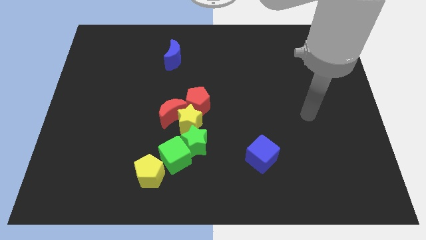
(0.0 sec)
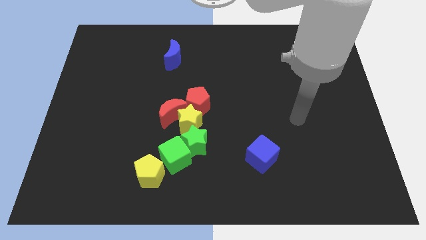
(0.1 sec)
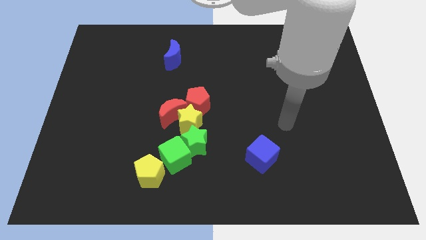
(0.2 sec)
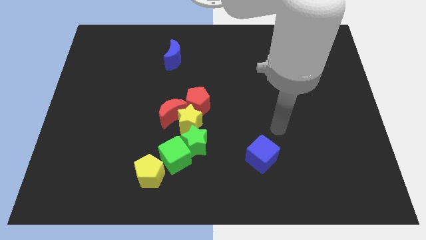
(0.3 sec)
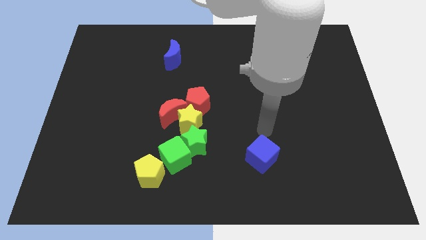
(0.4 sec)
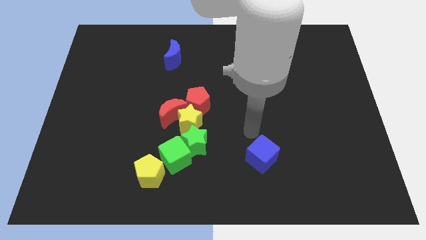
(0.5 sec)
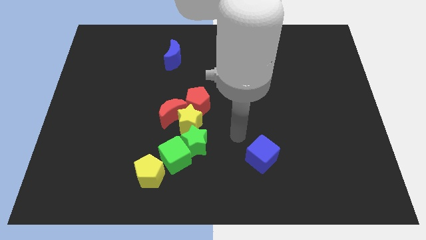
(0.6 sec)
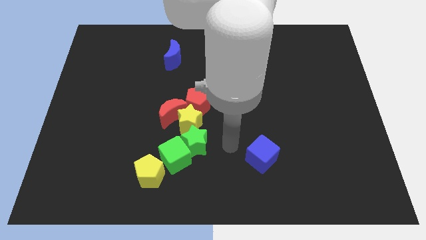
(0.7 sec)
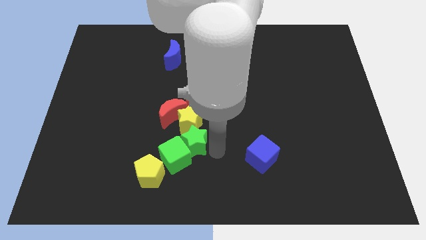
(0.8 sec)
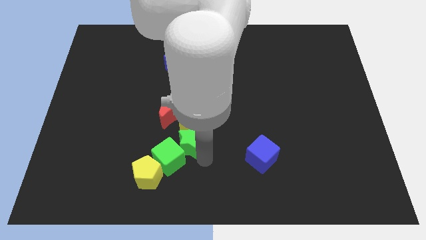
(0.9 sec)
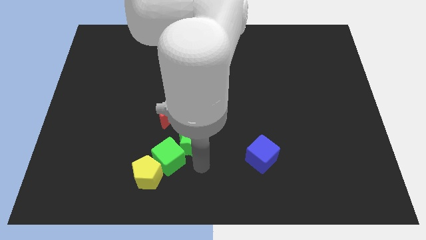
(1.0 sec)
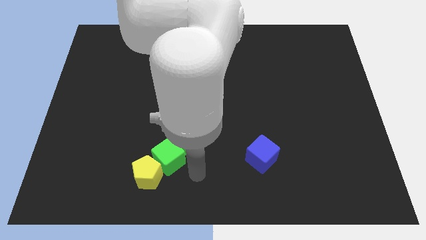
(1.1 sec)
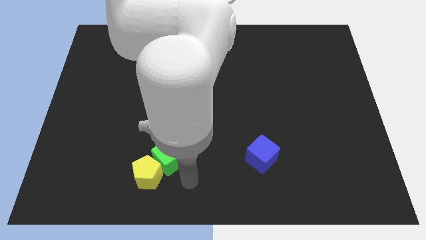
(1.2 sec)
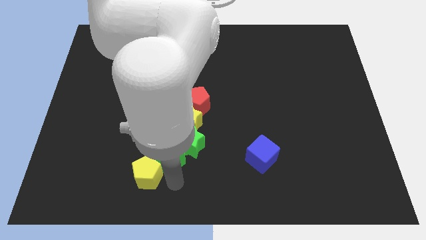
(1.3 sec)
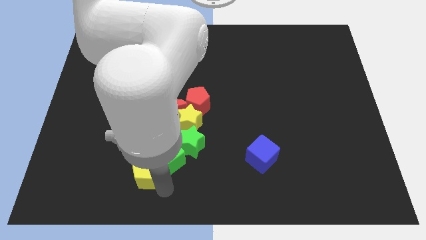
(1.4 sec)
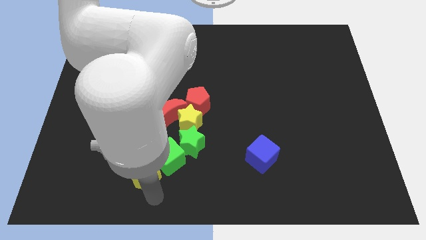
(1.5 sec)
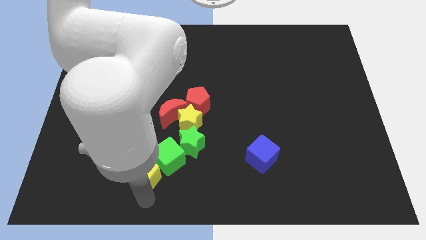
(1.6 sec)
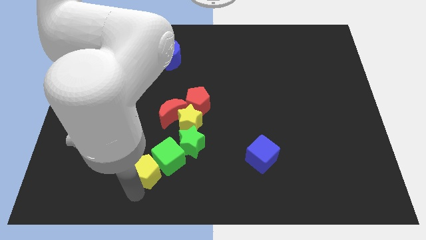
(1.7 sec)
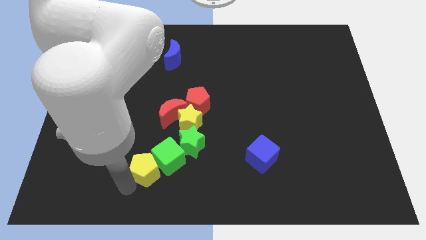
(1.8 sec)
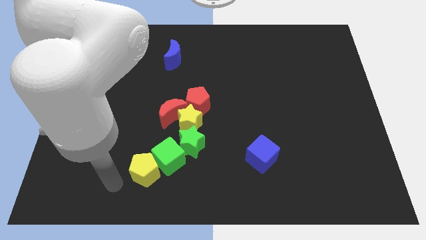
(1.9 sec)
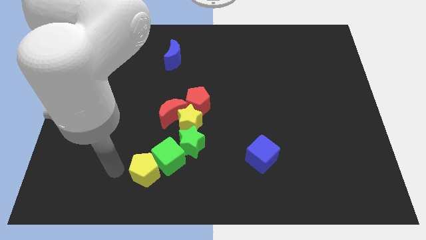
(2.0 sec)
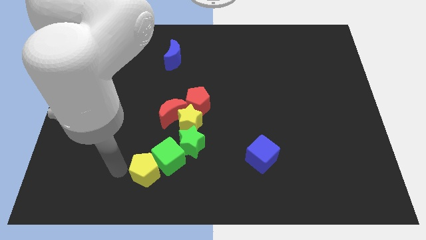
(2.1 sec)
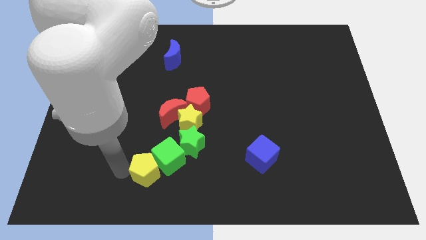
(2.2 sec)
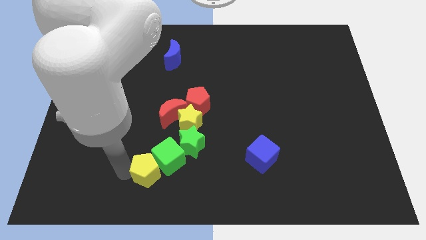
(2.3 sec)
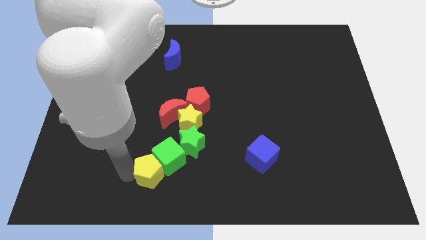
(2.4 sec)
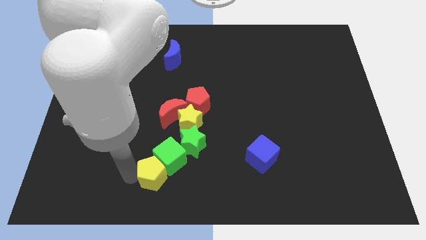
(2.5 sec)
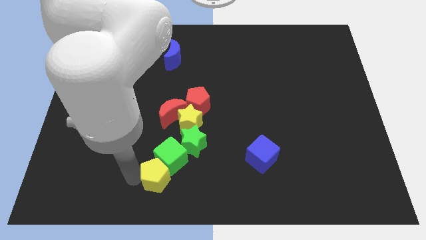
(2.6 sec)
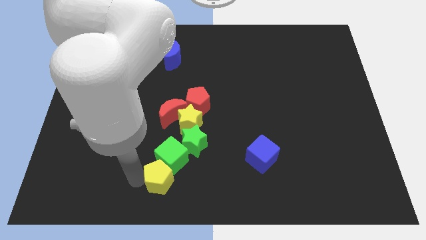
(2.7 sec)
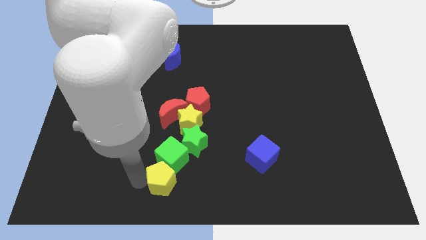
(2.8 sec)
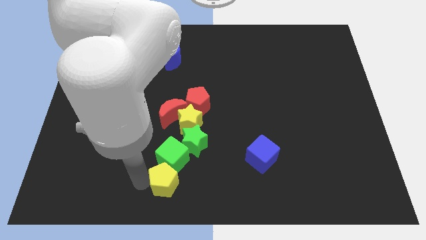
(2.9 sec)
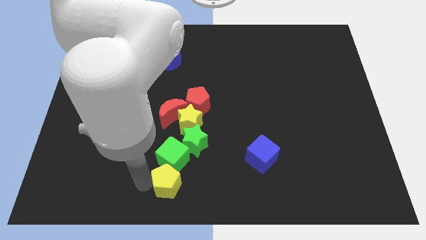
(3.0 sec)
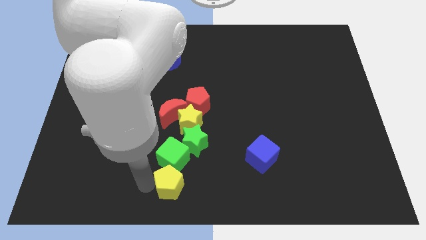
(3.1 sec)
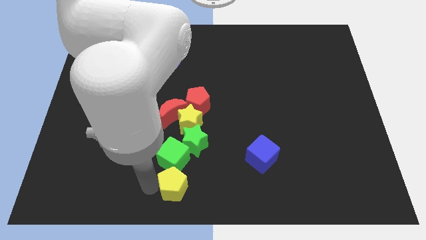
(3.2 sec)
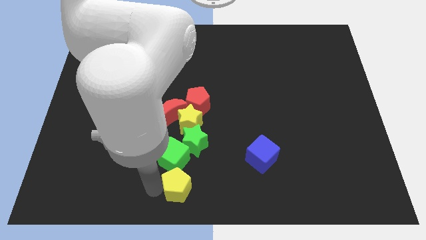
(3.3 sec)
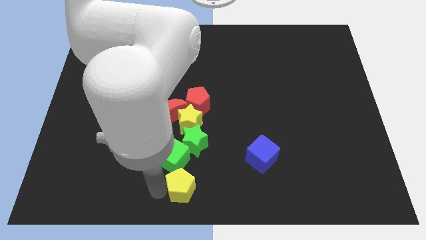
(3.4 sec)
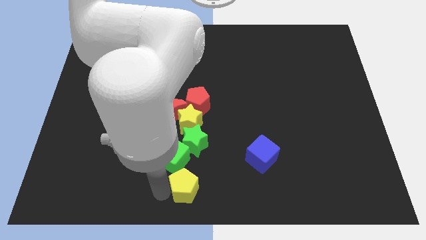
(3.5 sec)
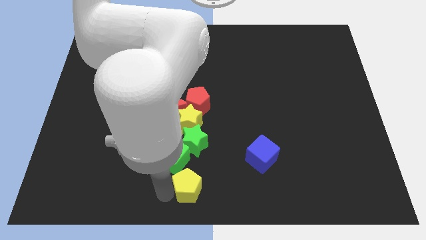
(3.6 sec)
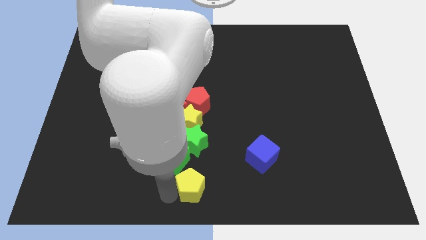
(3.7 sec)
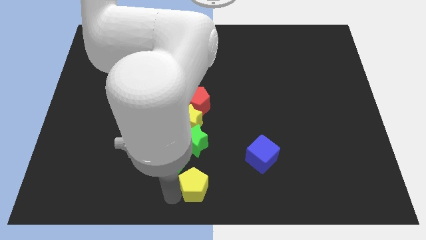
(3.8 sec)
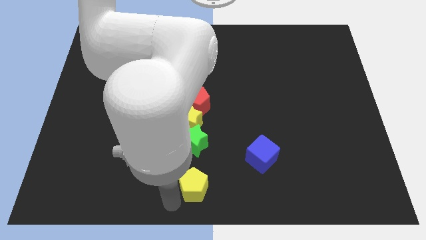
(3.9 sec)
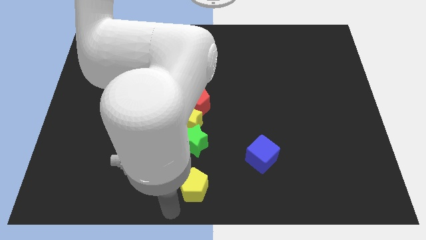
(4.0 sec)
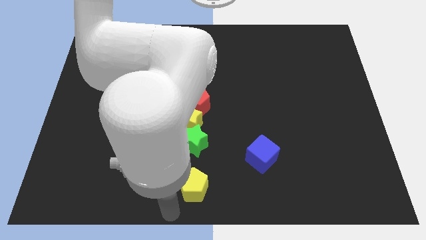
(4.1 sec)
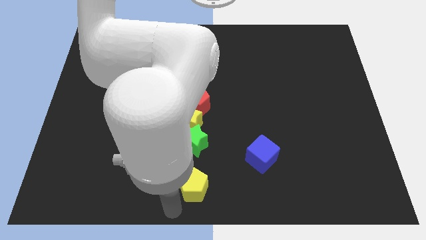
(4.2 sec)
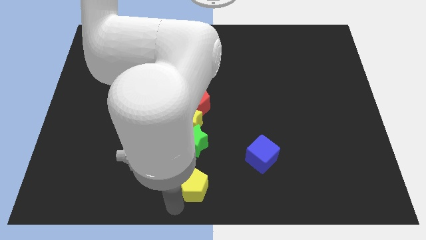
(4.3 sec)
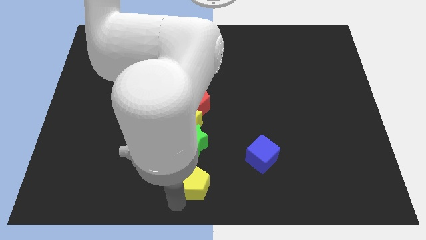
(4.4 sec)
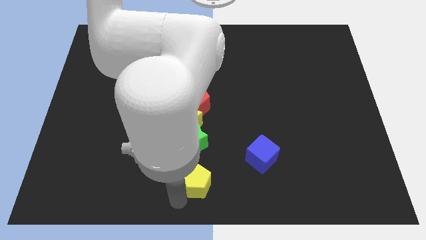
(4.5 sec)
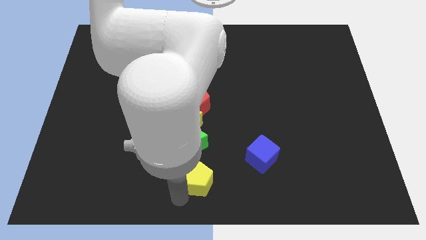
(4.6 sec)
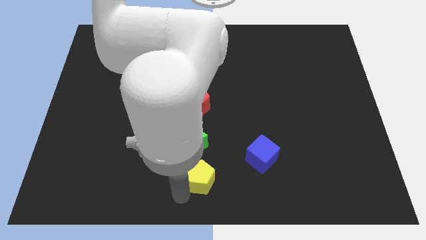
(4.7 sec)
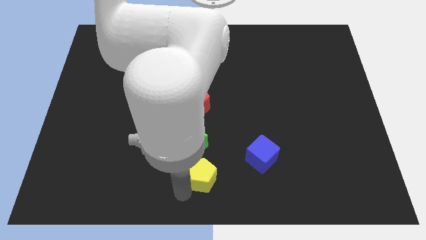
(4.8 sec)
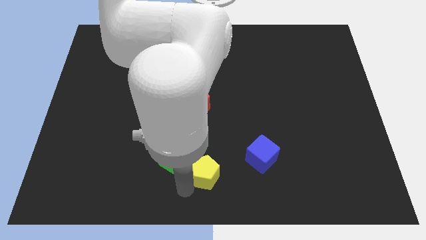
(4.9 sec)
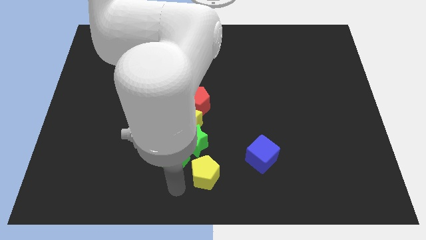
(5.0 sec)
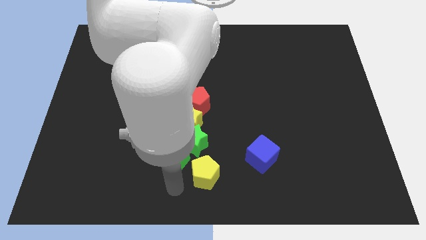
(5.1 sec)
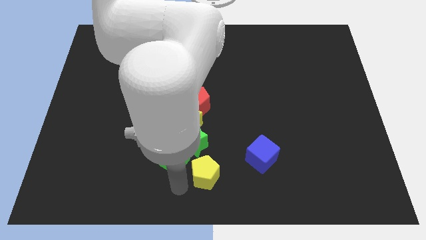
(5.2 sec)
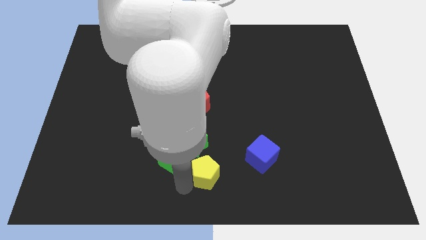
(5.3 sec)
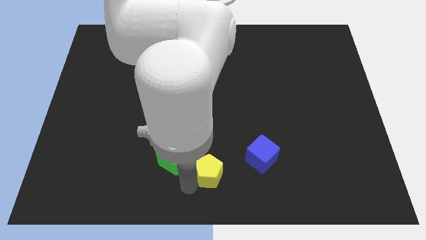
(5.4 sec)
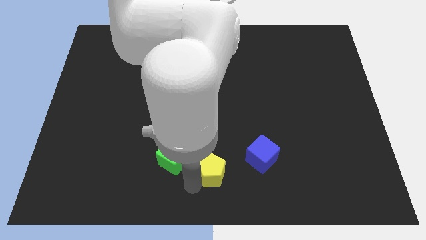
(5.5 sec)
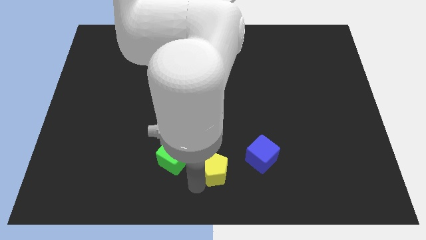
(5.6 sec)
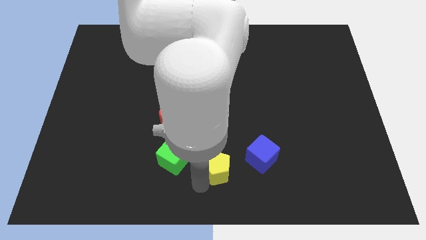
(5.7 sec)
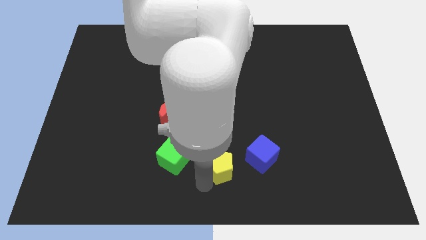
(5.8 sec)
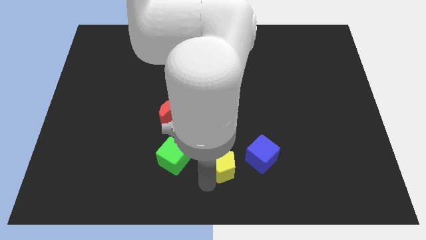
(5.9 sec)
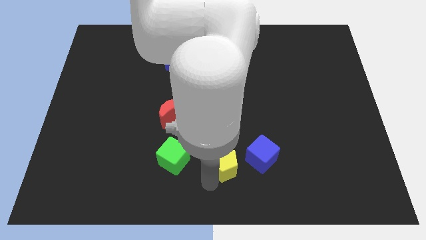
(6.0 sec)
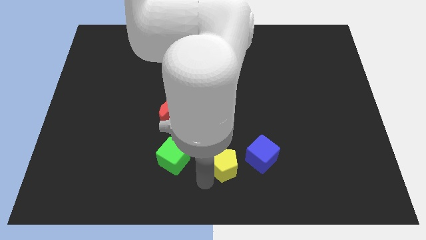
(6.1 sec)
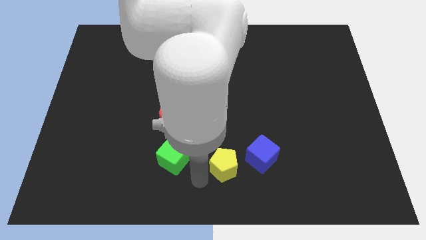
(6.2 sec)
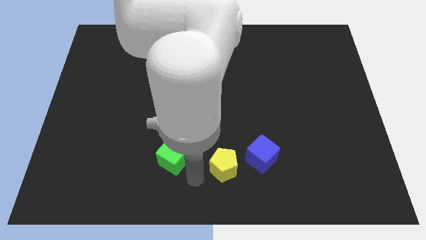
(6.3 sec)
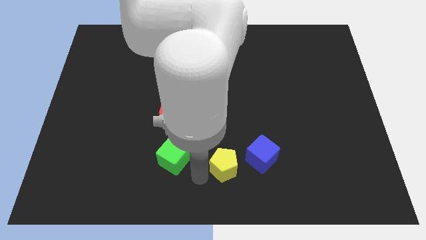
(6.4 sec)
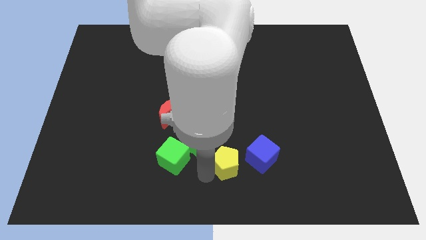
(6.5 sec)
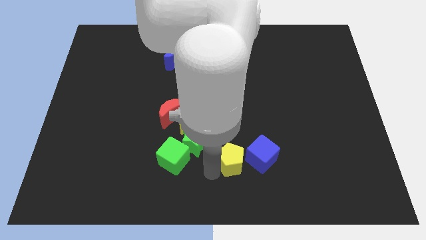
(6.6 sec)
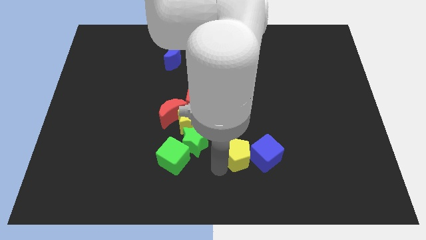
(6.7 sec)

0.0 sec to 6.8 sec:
slide the yellow pentagon next to the blue cube
